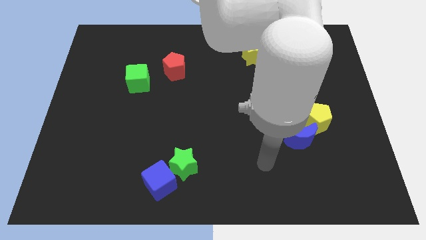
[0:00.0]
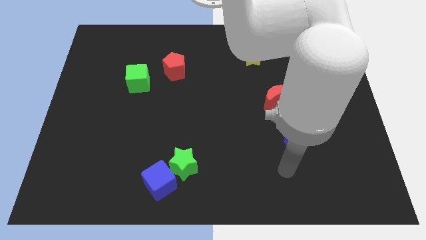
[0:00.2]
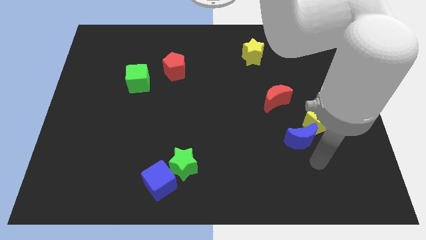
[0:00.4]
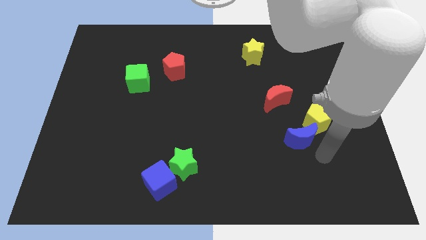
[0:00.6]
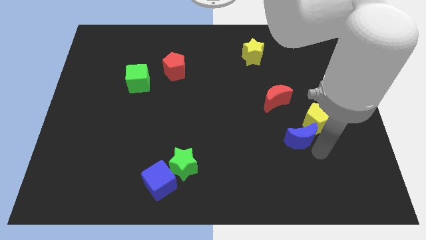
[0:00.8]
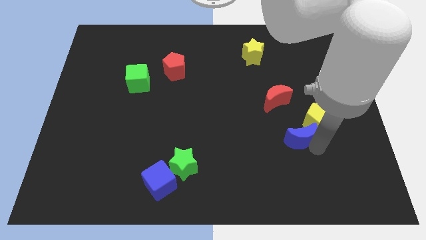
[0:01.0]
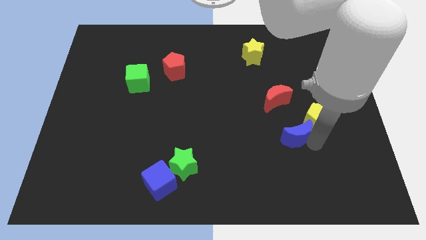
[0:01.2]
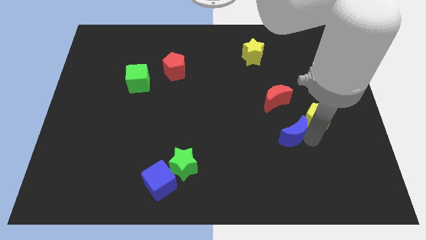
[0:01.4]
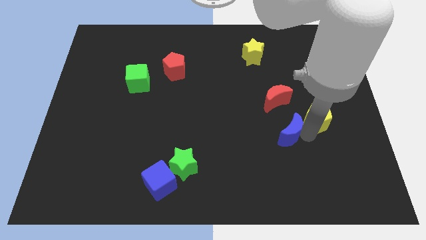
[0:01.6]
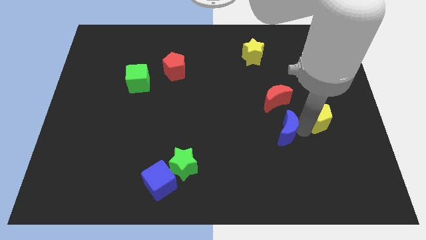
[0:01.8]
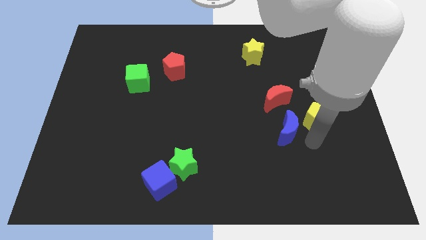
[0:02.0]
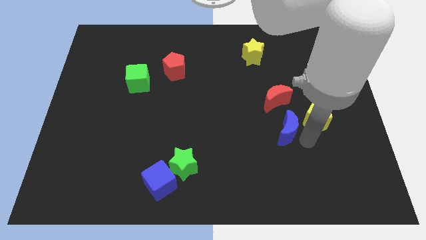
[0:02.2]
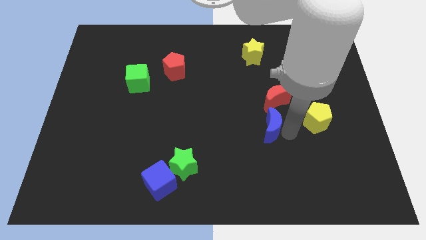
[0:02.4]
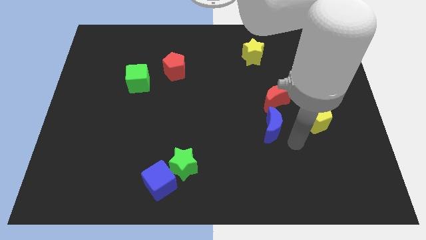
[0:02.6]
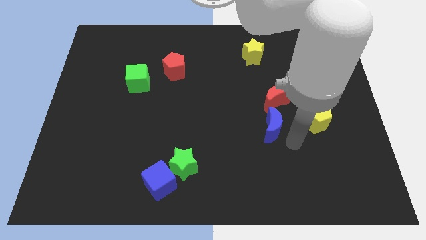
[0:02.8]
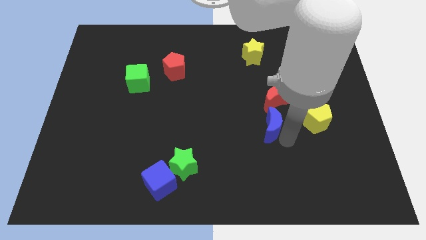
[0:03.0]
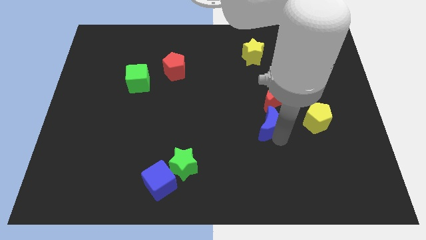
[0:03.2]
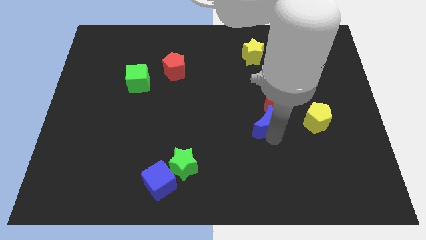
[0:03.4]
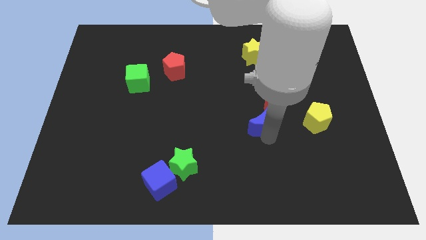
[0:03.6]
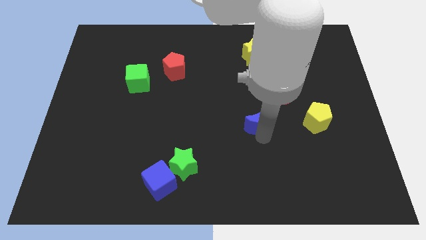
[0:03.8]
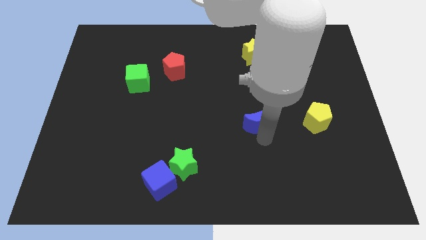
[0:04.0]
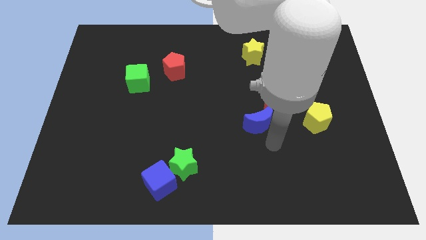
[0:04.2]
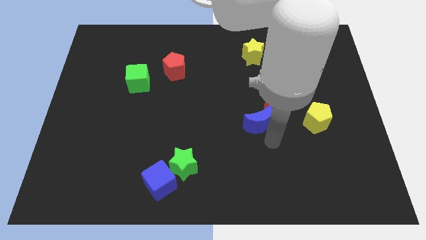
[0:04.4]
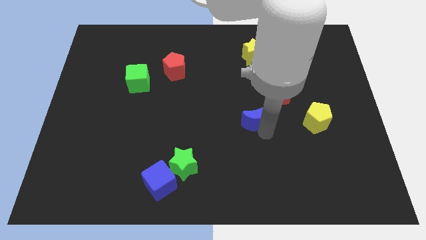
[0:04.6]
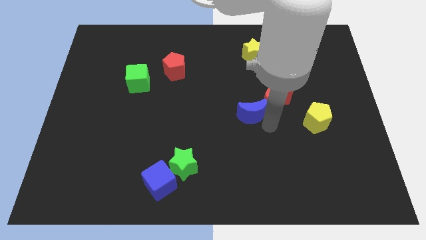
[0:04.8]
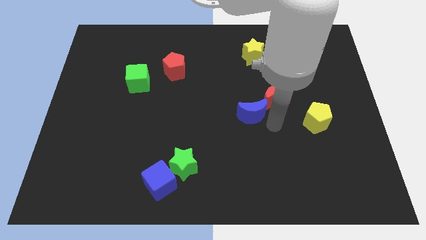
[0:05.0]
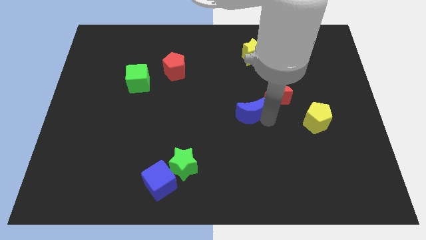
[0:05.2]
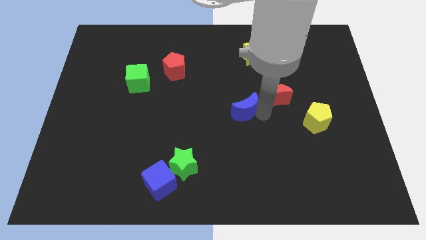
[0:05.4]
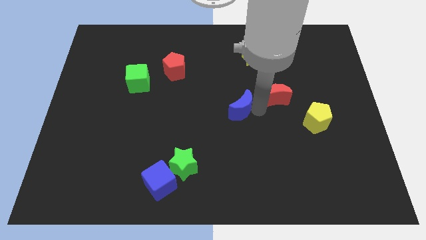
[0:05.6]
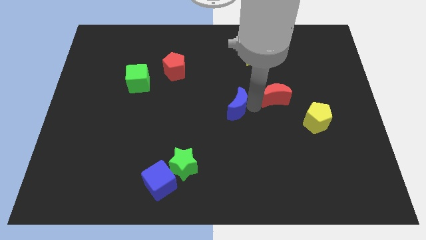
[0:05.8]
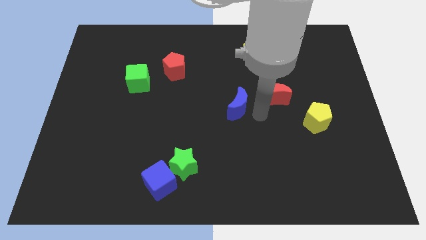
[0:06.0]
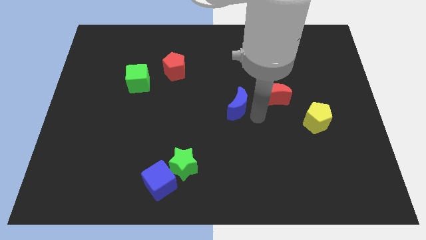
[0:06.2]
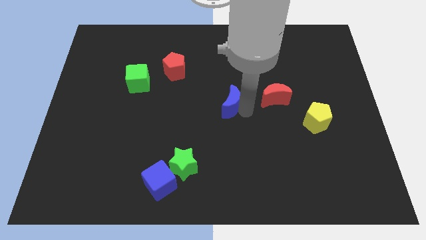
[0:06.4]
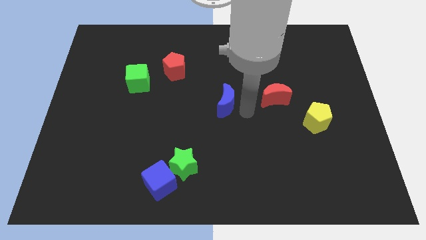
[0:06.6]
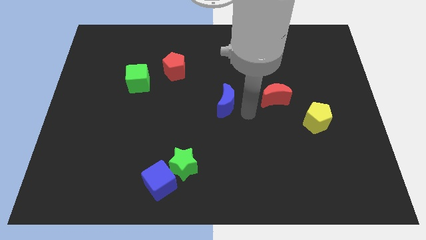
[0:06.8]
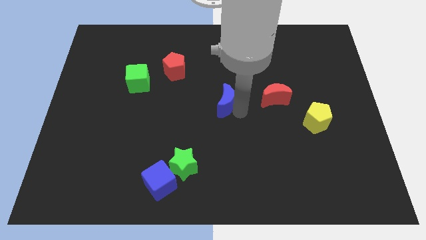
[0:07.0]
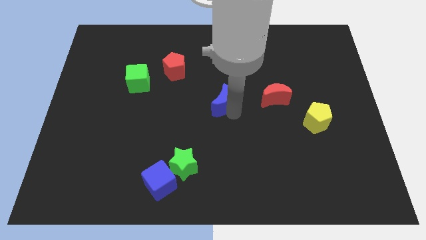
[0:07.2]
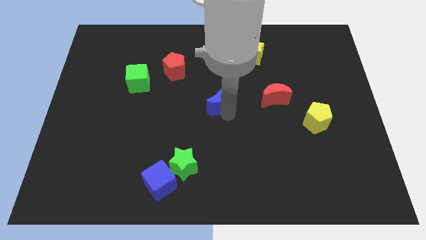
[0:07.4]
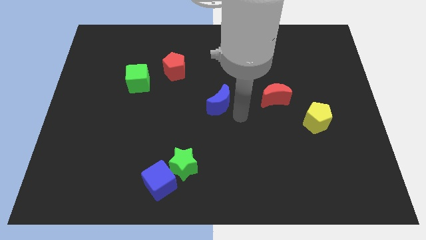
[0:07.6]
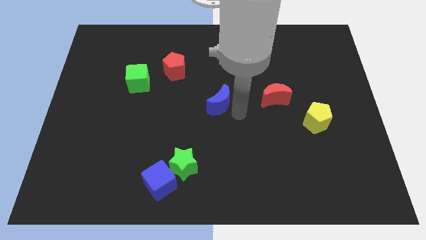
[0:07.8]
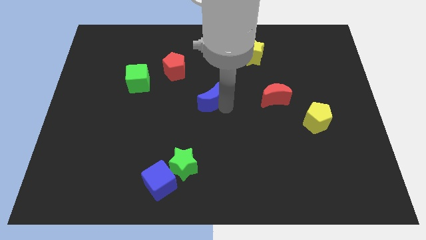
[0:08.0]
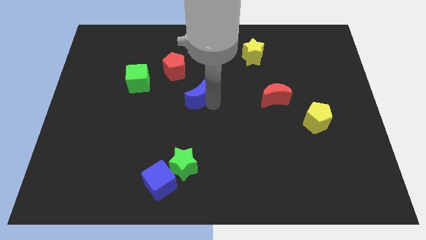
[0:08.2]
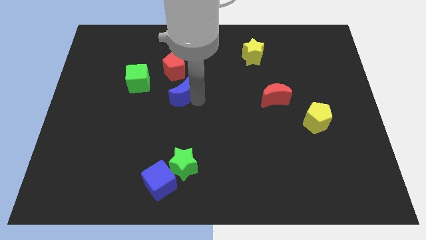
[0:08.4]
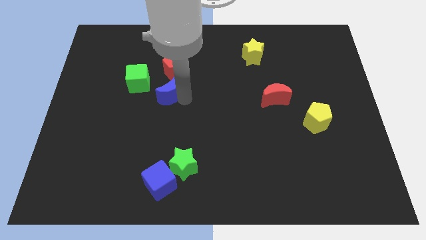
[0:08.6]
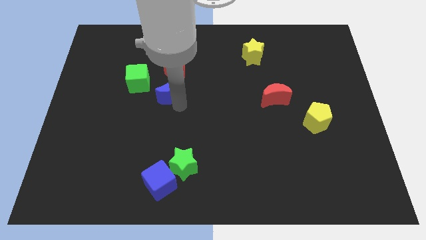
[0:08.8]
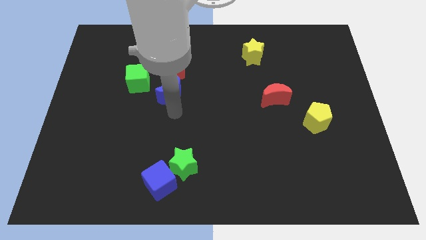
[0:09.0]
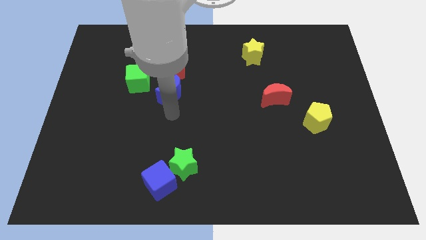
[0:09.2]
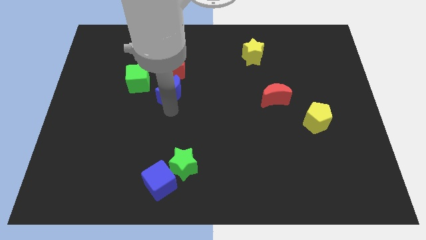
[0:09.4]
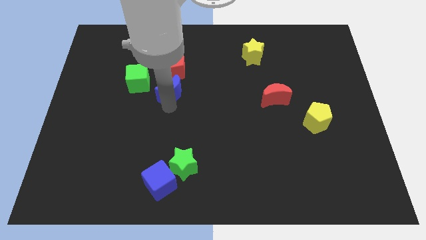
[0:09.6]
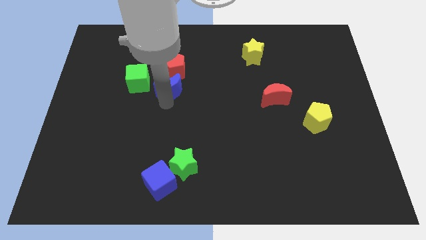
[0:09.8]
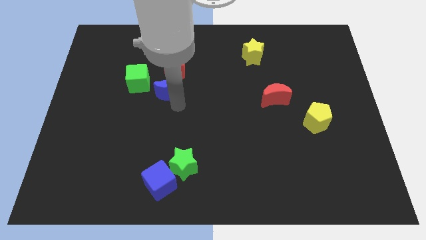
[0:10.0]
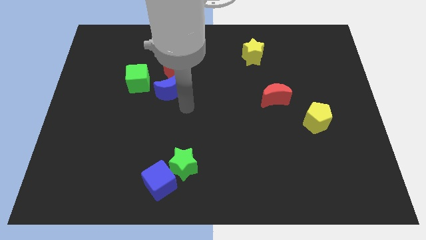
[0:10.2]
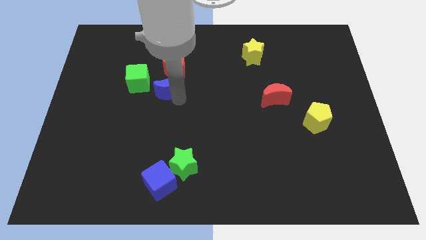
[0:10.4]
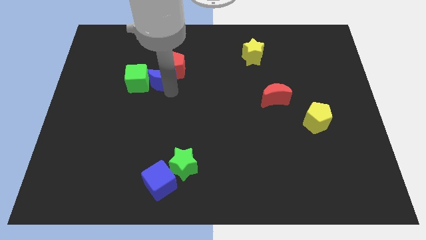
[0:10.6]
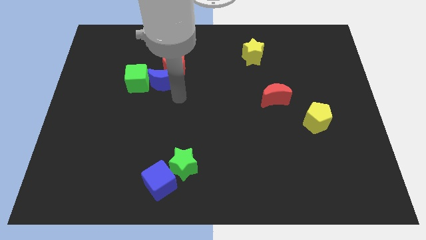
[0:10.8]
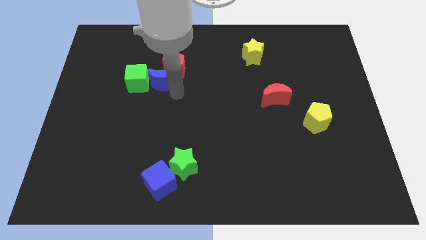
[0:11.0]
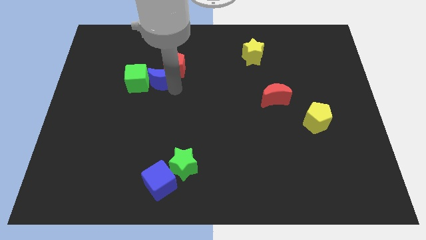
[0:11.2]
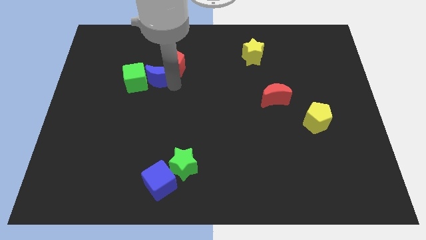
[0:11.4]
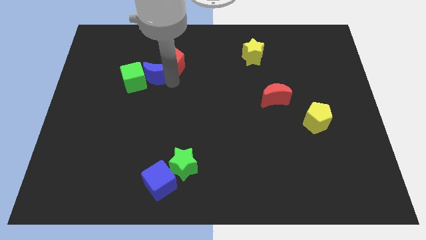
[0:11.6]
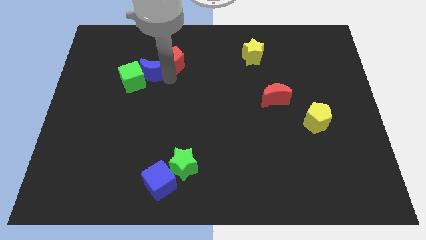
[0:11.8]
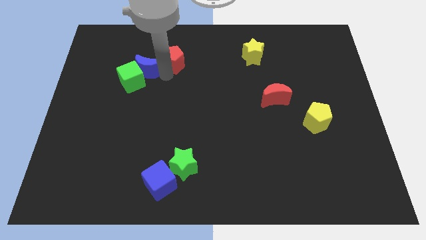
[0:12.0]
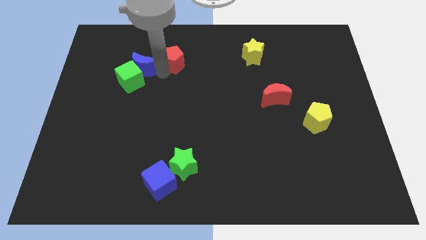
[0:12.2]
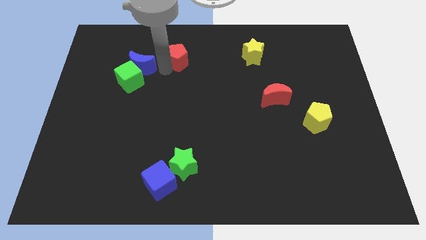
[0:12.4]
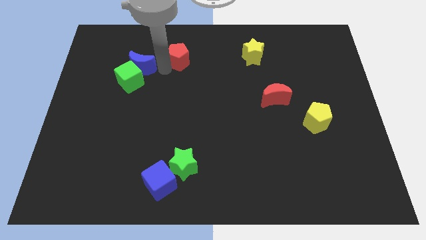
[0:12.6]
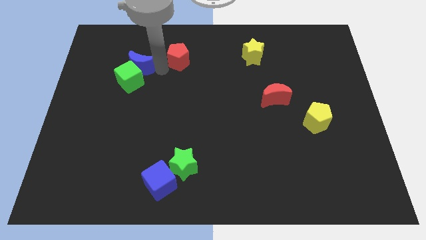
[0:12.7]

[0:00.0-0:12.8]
slide the blue moon to the top left of the green cube
